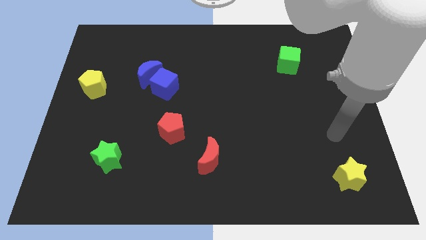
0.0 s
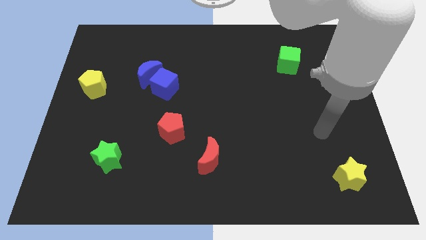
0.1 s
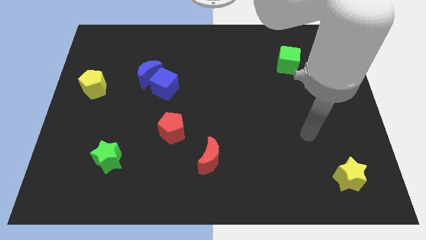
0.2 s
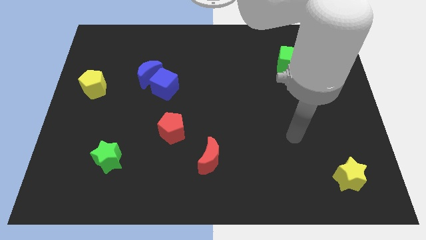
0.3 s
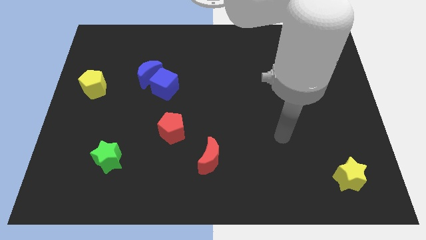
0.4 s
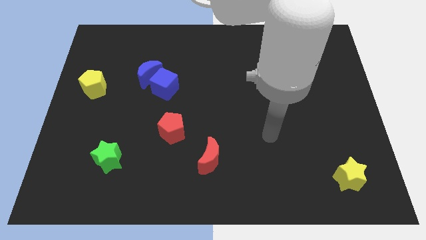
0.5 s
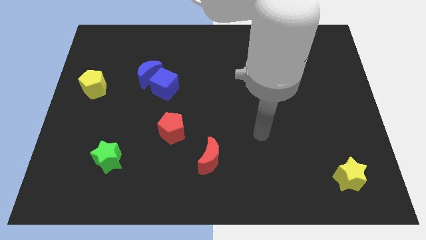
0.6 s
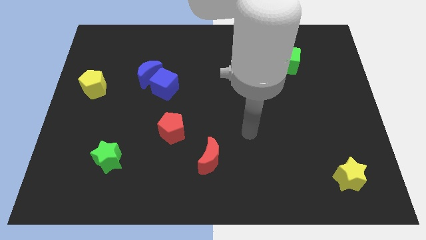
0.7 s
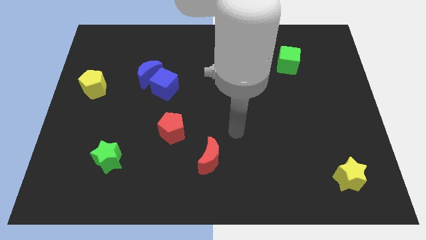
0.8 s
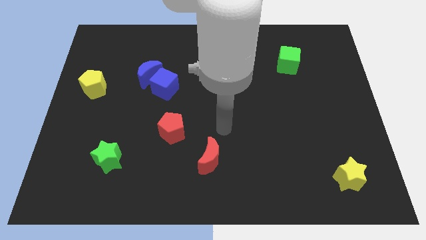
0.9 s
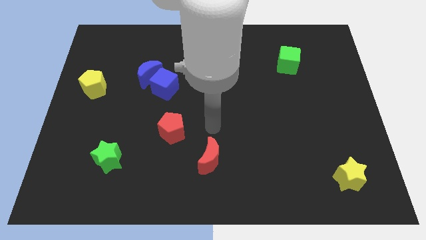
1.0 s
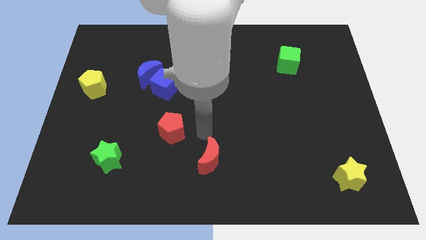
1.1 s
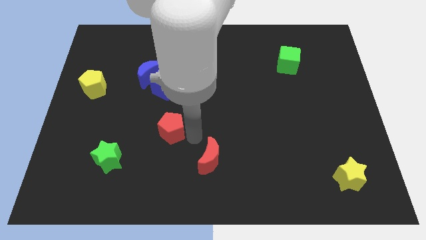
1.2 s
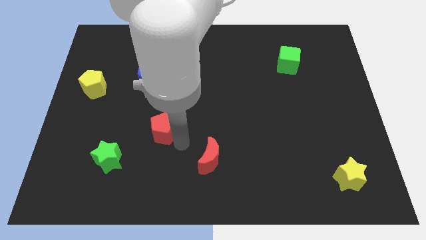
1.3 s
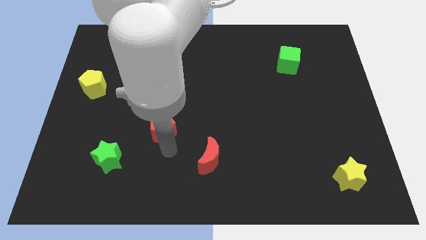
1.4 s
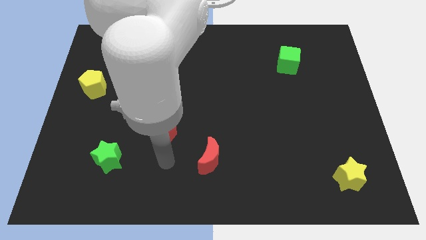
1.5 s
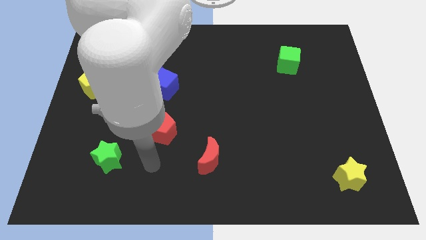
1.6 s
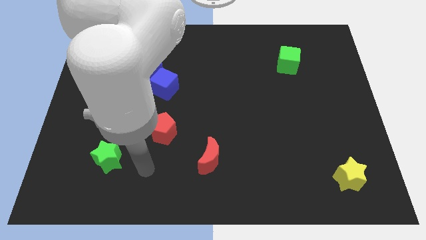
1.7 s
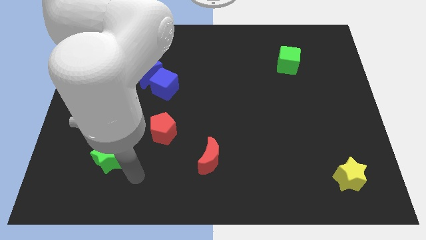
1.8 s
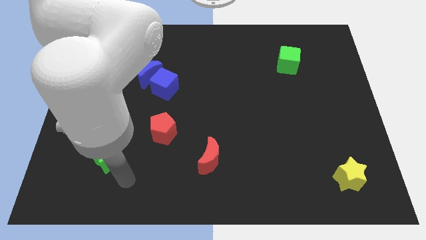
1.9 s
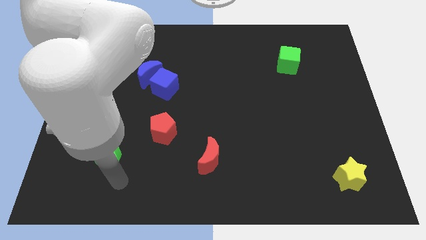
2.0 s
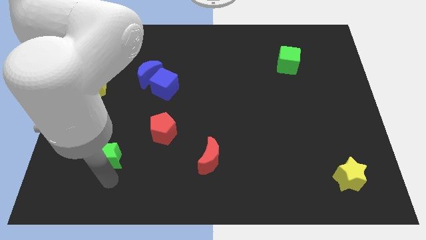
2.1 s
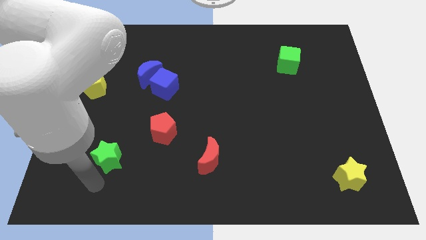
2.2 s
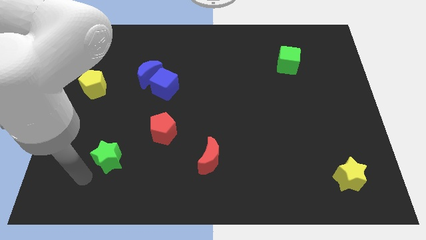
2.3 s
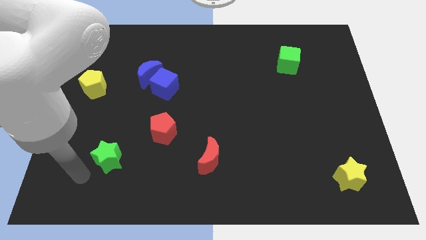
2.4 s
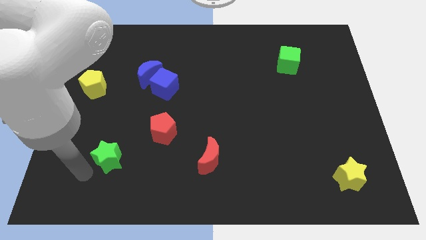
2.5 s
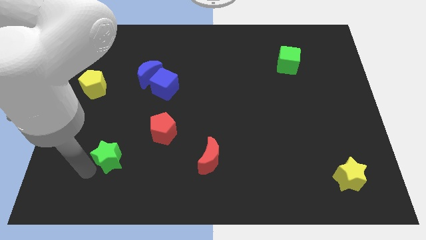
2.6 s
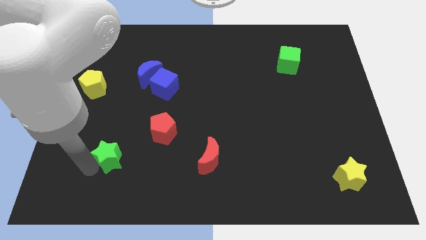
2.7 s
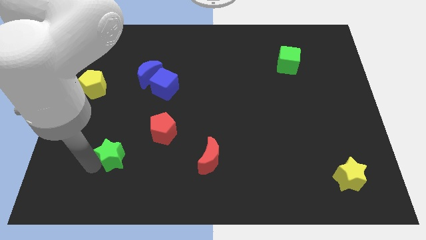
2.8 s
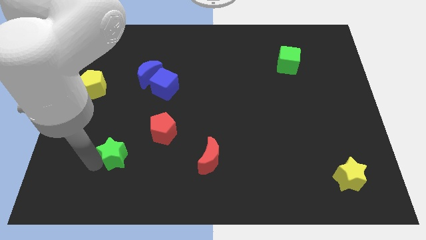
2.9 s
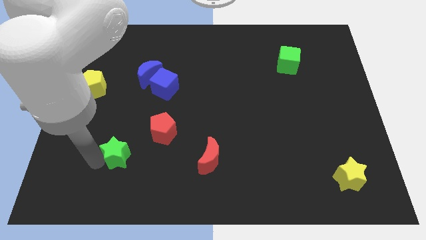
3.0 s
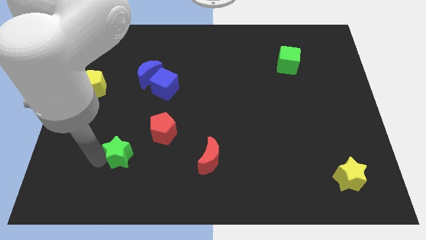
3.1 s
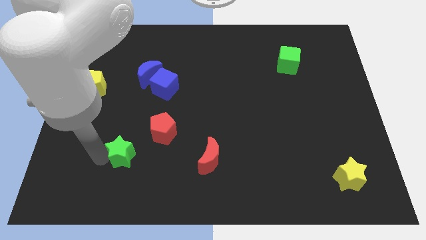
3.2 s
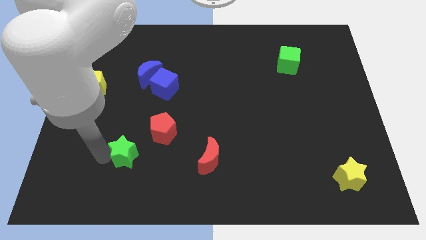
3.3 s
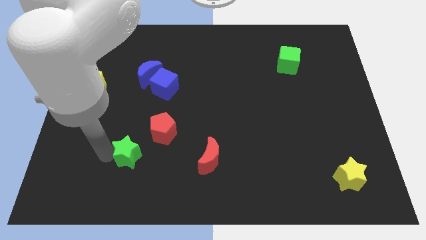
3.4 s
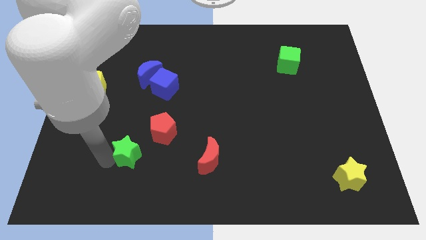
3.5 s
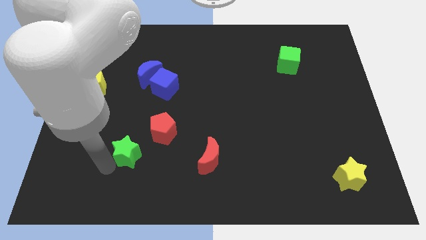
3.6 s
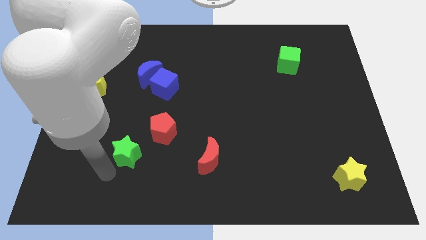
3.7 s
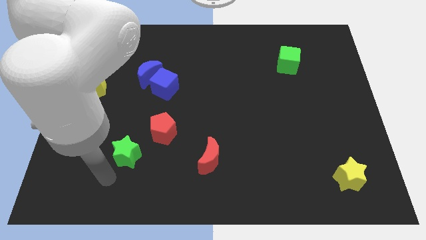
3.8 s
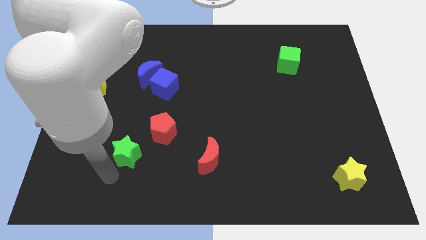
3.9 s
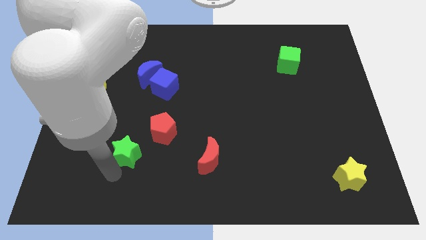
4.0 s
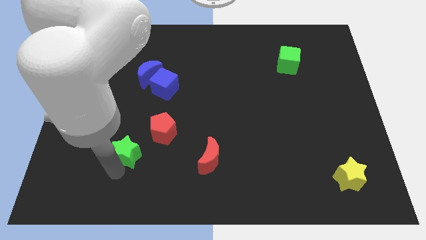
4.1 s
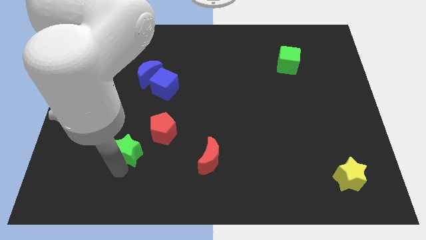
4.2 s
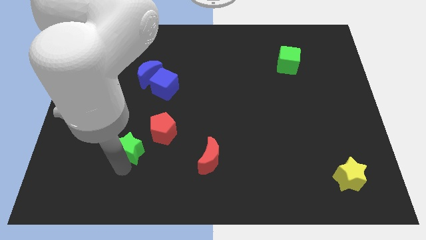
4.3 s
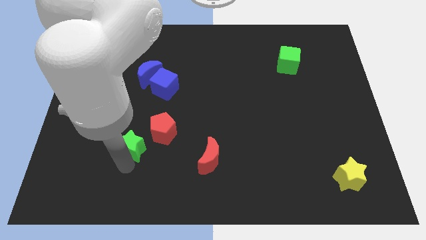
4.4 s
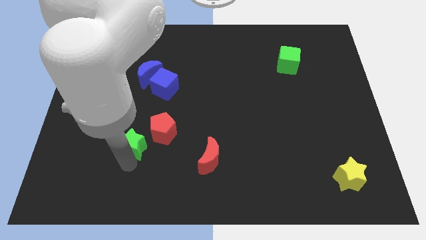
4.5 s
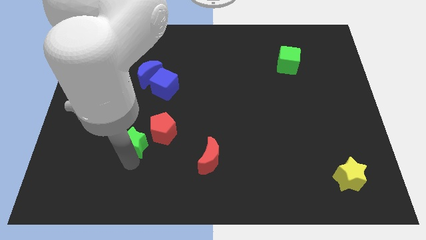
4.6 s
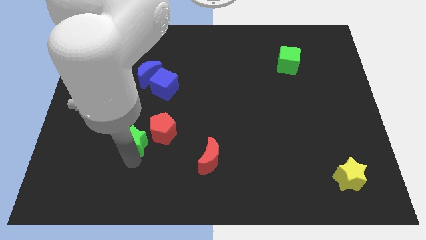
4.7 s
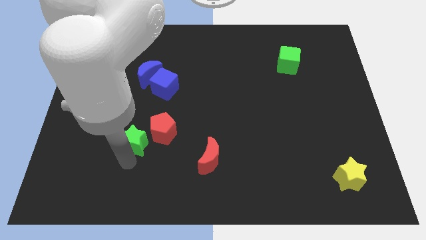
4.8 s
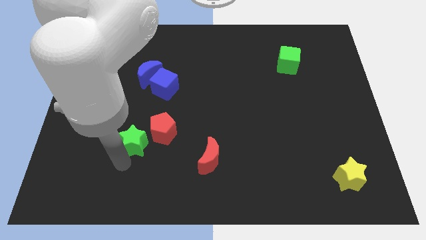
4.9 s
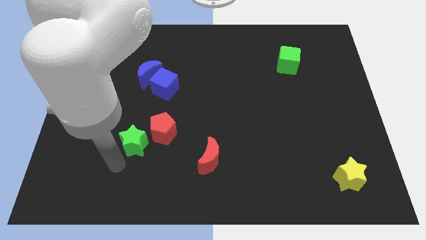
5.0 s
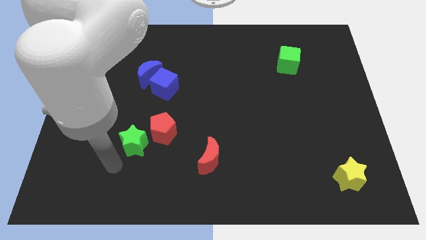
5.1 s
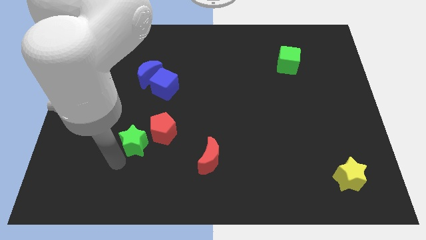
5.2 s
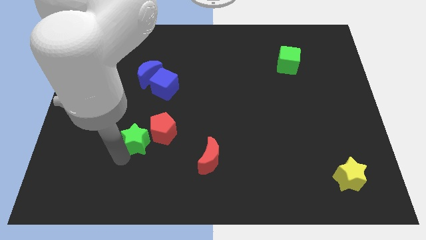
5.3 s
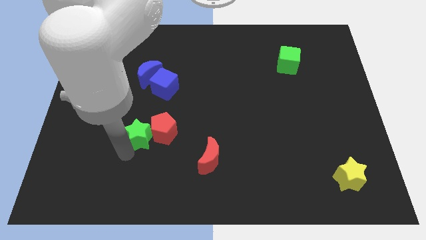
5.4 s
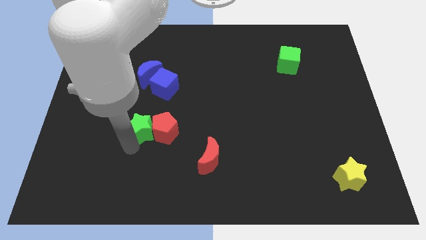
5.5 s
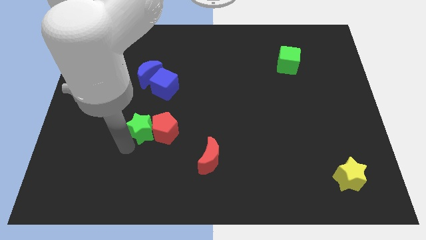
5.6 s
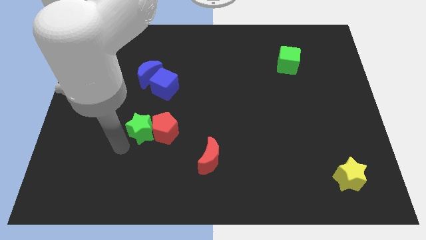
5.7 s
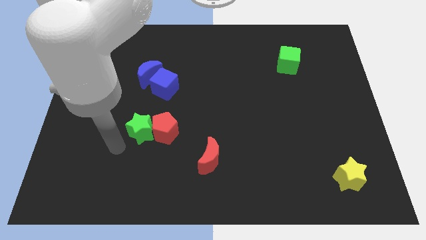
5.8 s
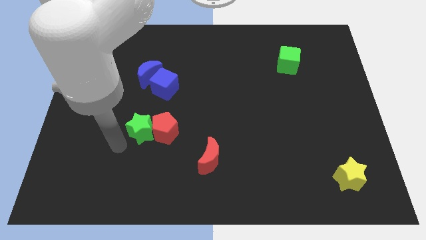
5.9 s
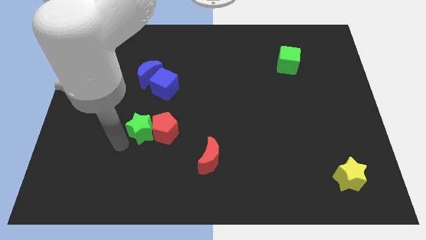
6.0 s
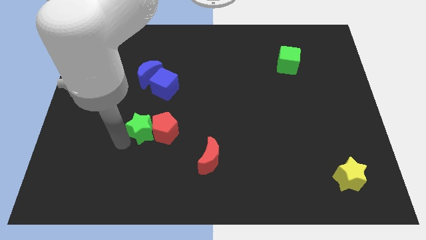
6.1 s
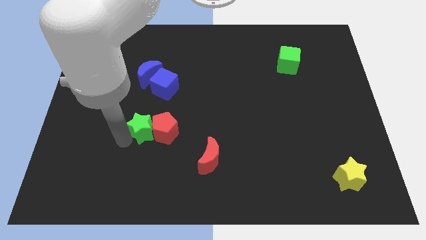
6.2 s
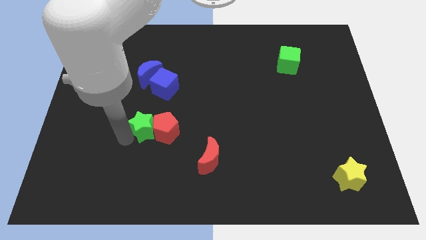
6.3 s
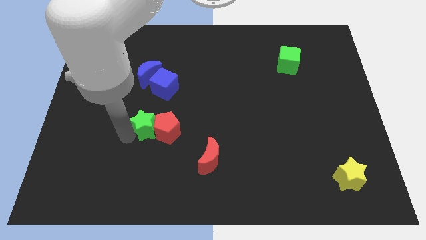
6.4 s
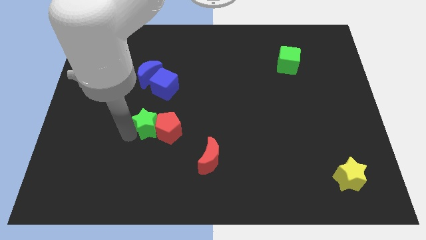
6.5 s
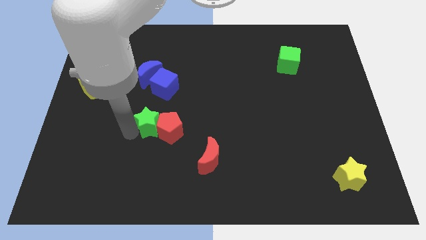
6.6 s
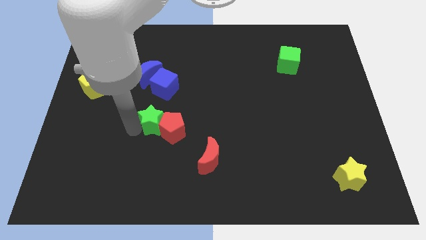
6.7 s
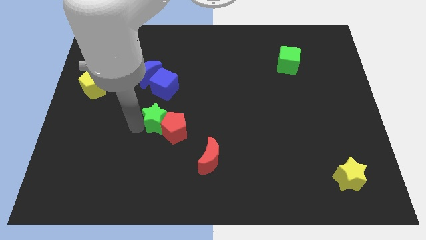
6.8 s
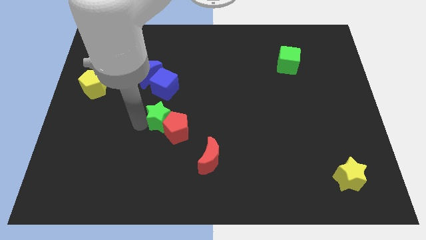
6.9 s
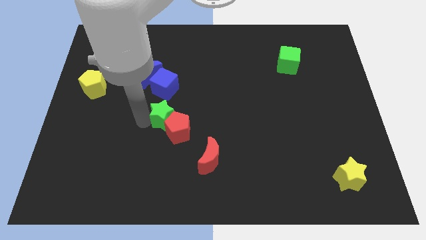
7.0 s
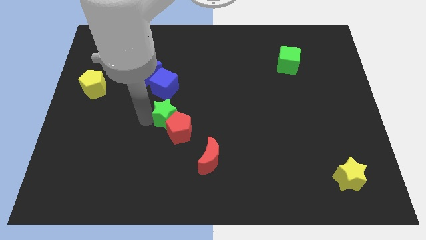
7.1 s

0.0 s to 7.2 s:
push the green star to the middle
